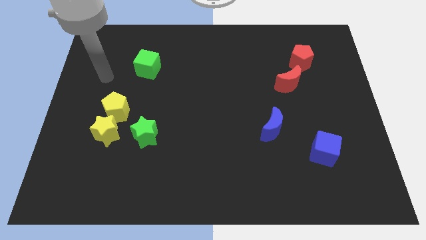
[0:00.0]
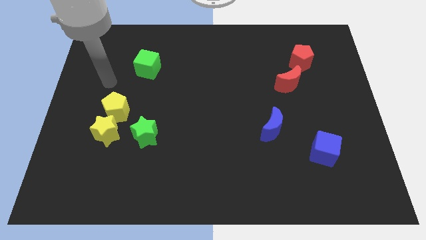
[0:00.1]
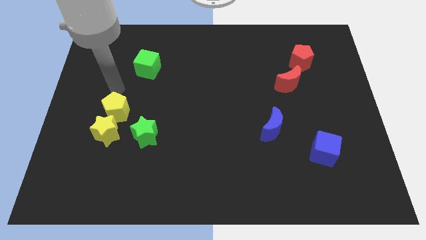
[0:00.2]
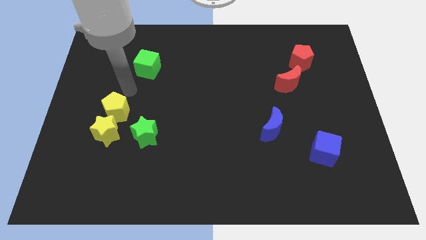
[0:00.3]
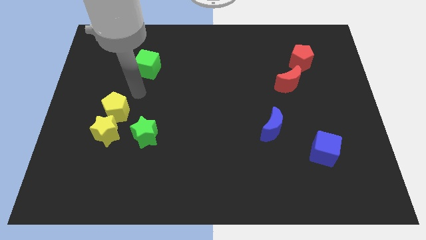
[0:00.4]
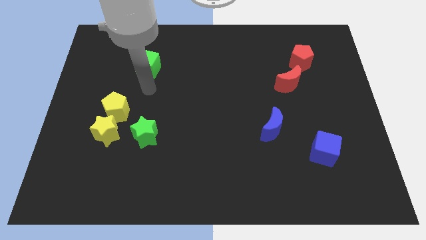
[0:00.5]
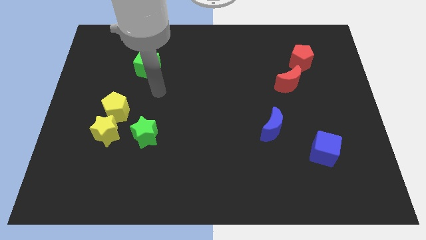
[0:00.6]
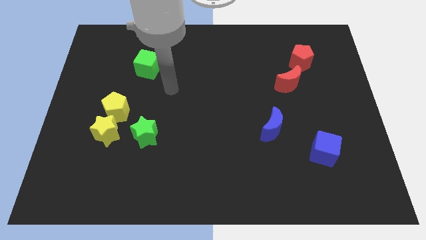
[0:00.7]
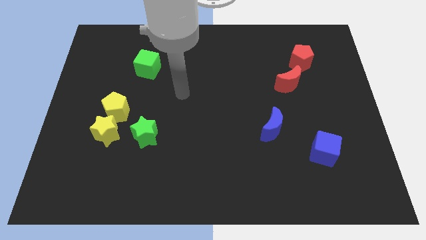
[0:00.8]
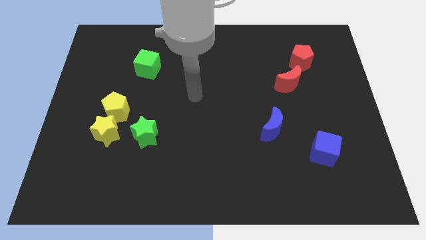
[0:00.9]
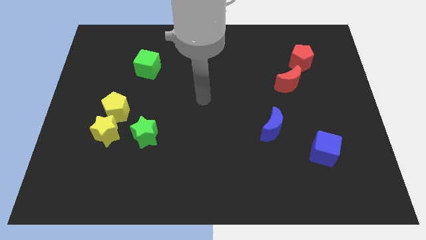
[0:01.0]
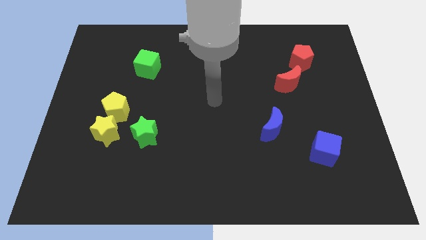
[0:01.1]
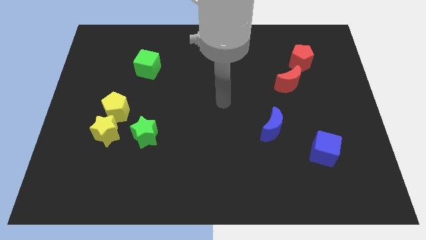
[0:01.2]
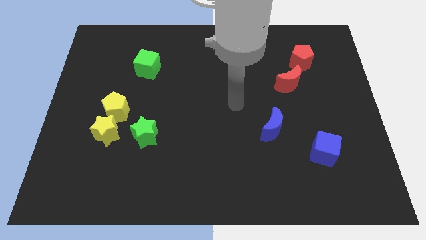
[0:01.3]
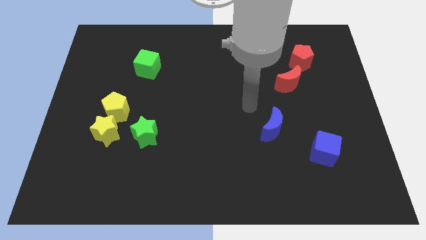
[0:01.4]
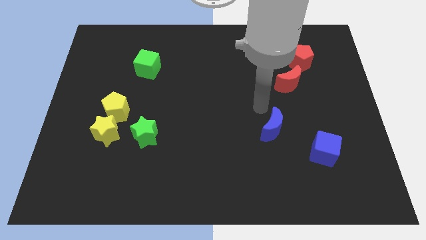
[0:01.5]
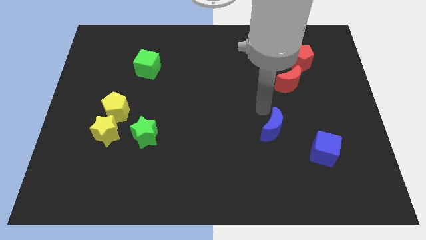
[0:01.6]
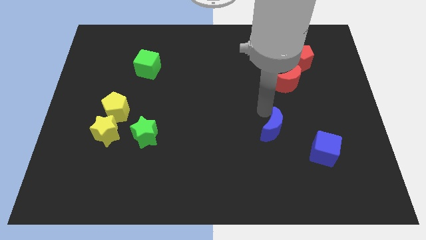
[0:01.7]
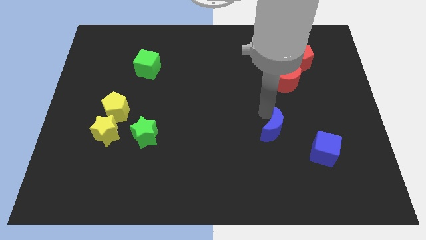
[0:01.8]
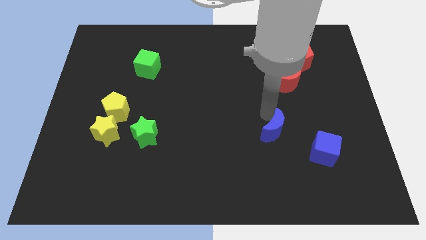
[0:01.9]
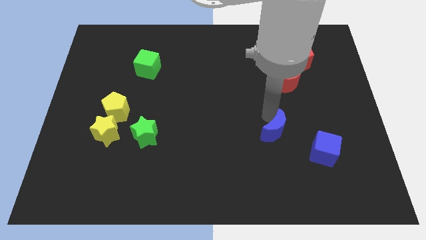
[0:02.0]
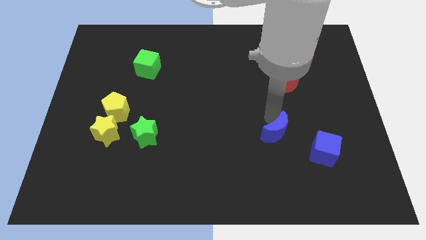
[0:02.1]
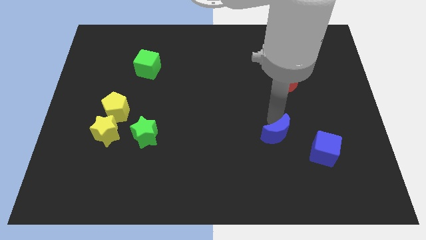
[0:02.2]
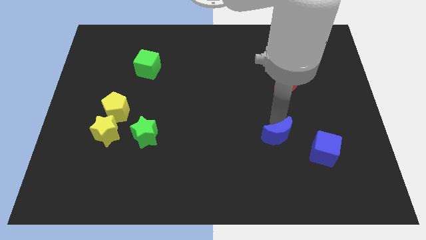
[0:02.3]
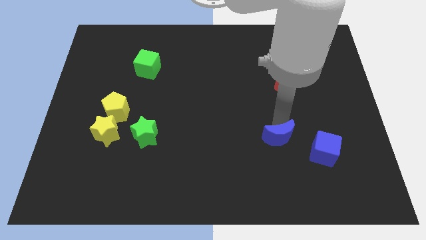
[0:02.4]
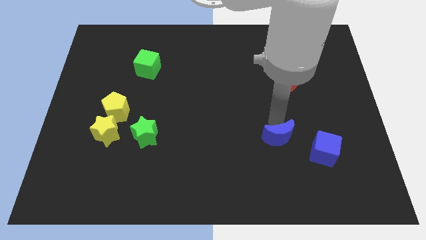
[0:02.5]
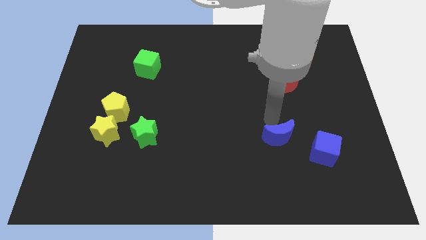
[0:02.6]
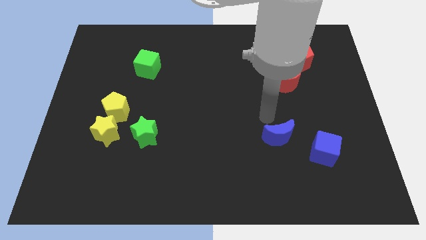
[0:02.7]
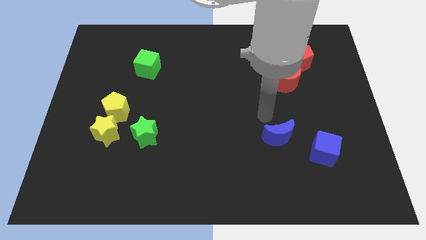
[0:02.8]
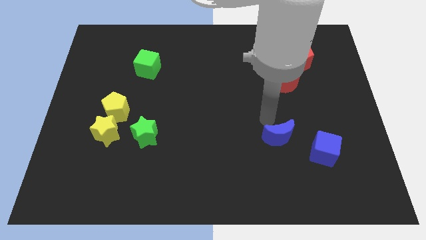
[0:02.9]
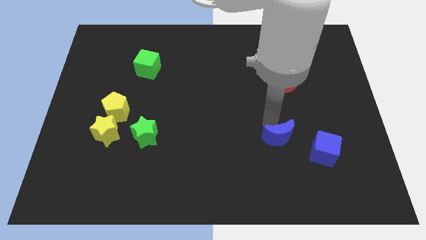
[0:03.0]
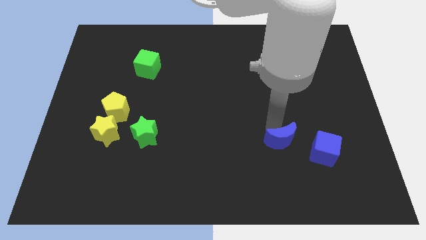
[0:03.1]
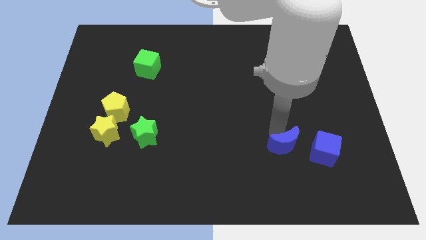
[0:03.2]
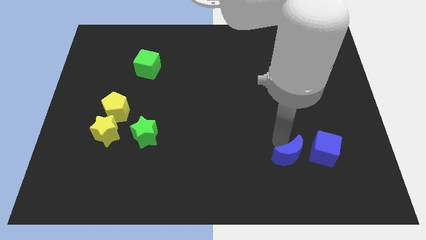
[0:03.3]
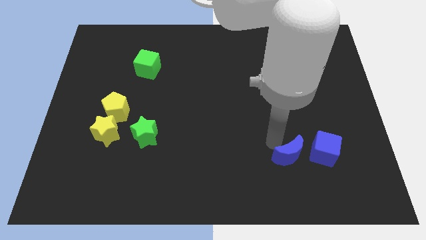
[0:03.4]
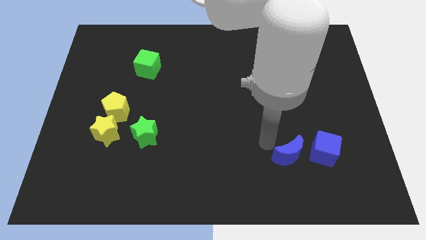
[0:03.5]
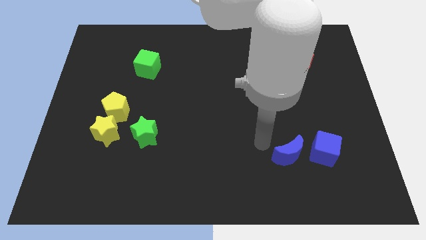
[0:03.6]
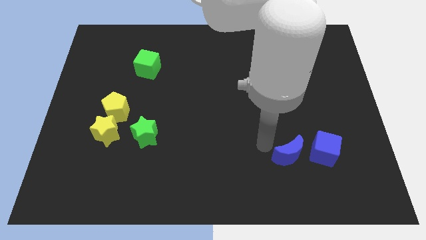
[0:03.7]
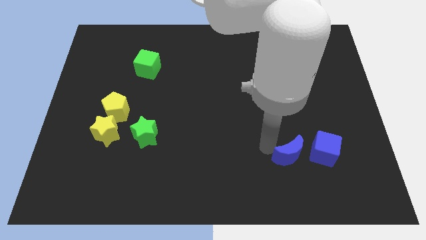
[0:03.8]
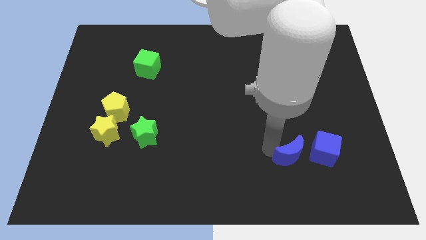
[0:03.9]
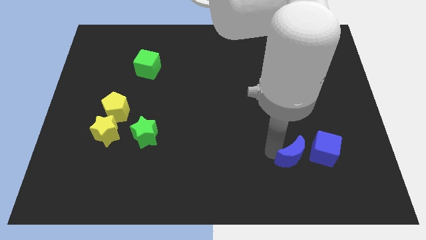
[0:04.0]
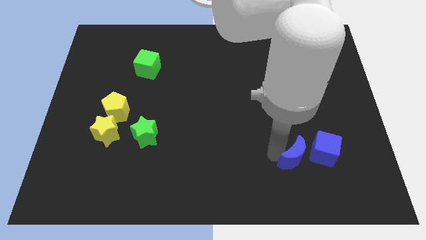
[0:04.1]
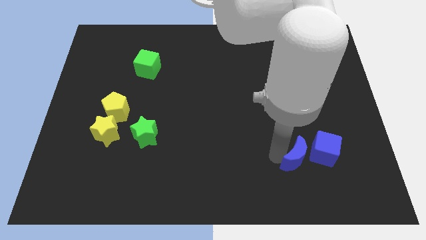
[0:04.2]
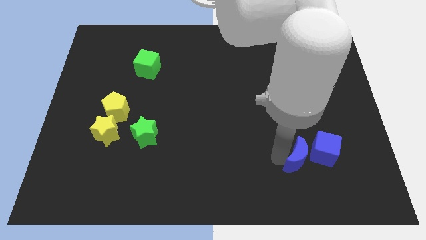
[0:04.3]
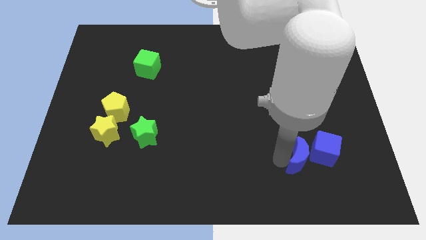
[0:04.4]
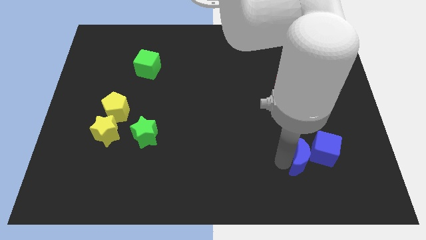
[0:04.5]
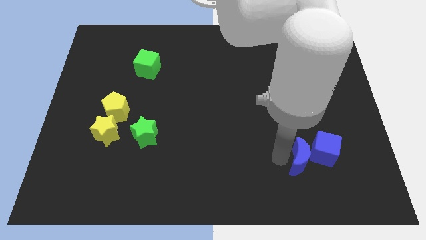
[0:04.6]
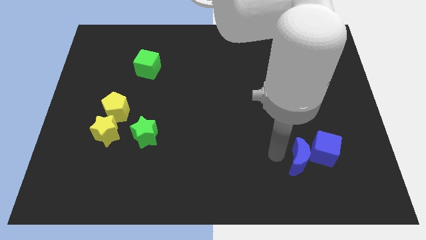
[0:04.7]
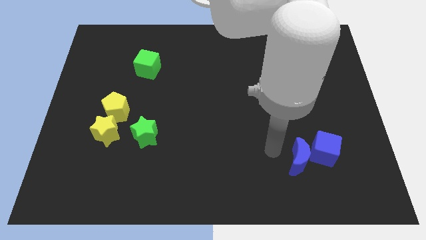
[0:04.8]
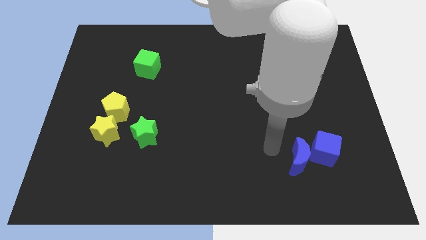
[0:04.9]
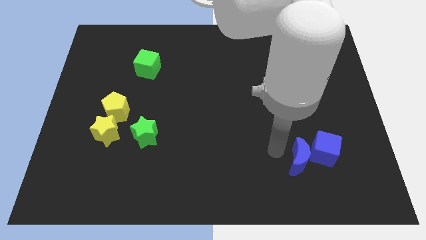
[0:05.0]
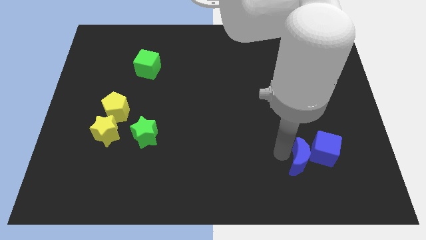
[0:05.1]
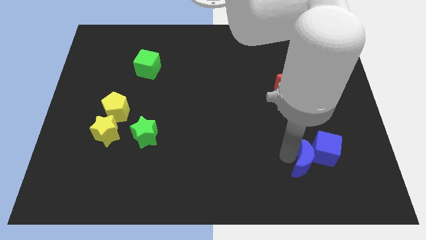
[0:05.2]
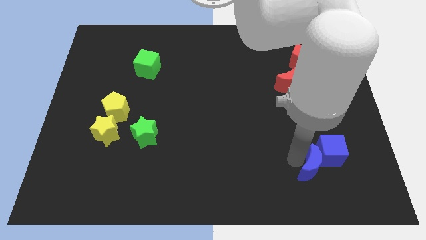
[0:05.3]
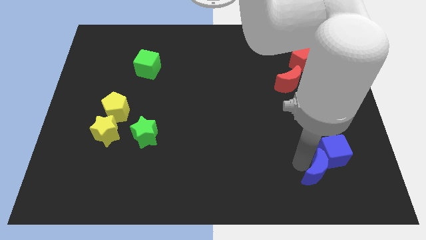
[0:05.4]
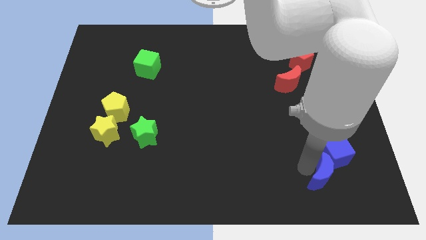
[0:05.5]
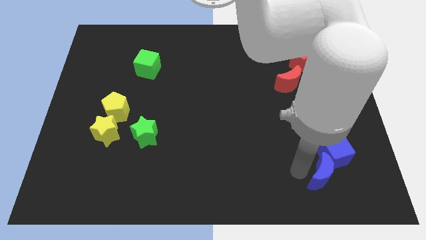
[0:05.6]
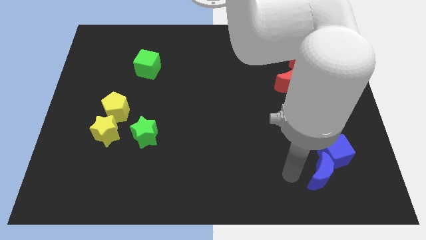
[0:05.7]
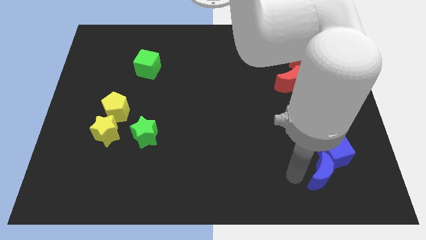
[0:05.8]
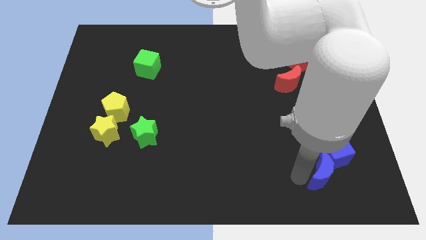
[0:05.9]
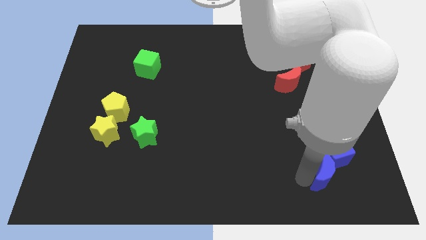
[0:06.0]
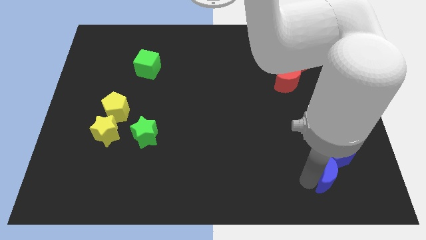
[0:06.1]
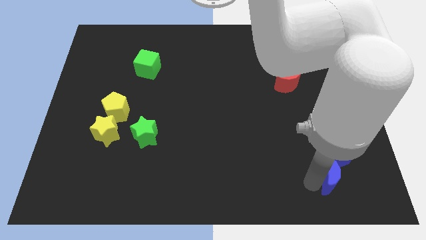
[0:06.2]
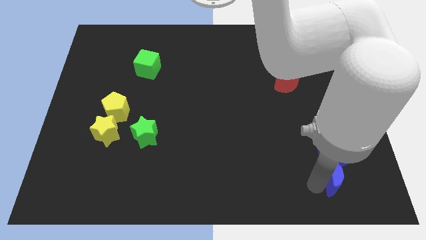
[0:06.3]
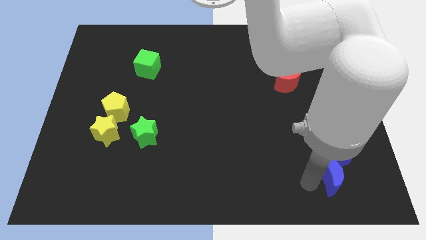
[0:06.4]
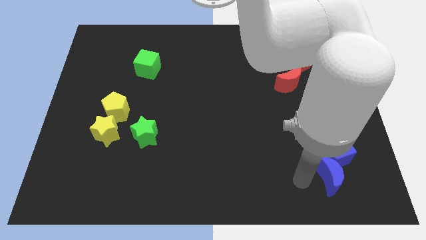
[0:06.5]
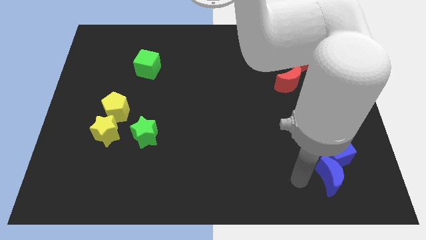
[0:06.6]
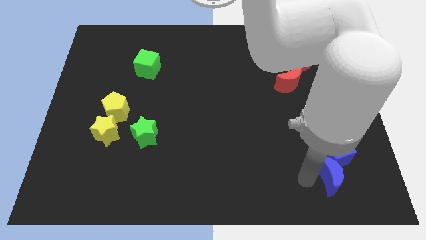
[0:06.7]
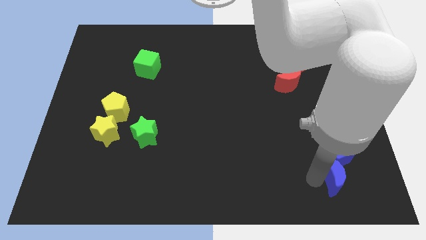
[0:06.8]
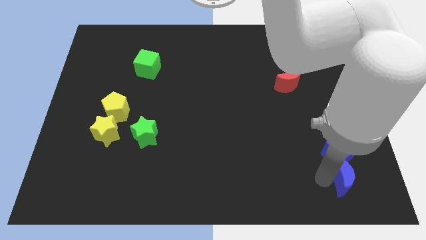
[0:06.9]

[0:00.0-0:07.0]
put the blue moon diagonally down and to the right of the blue cube

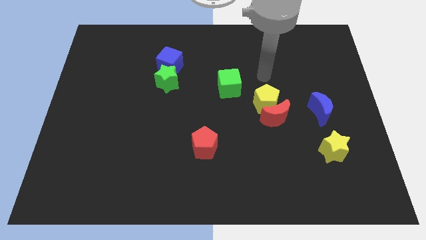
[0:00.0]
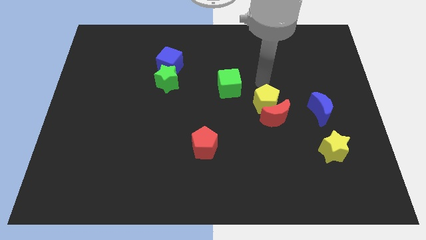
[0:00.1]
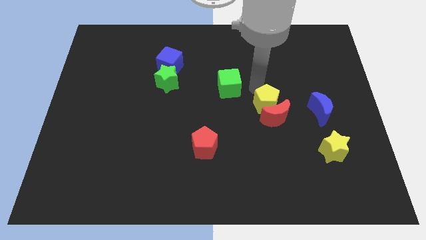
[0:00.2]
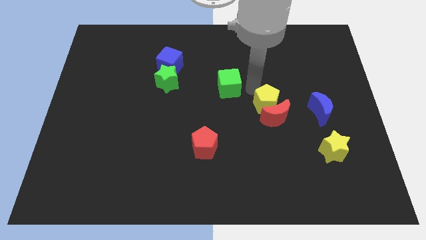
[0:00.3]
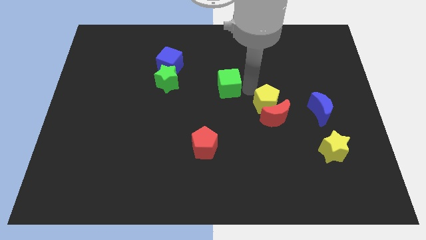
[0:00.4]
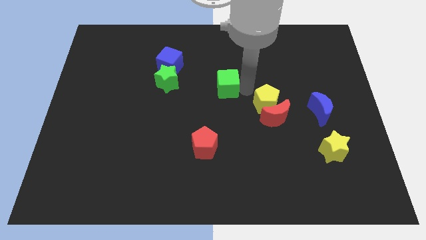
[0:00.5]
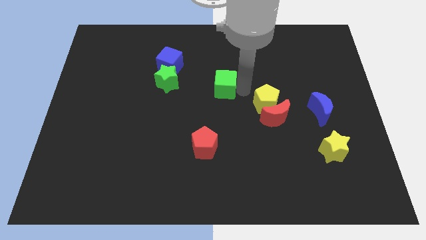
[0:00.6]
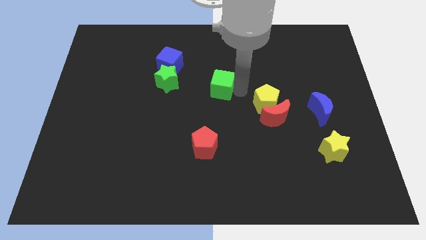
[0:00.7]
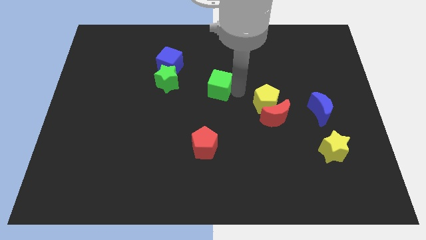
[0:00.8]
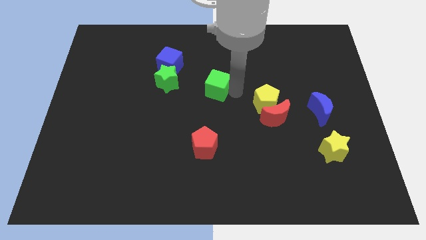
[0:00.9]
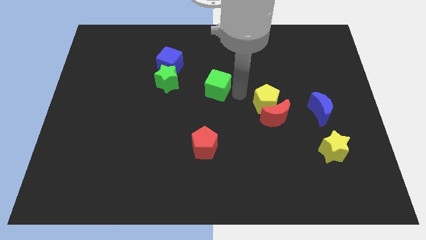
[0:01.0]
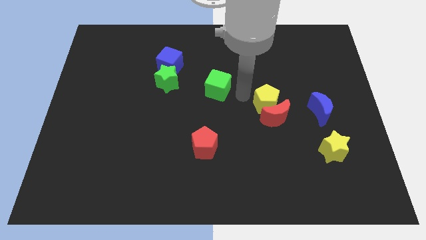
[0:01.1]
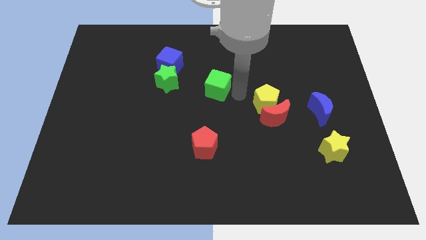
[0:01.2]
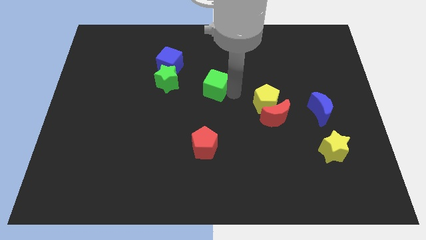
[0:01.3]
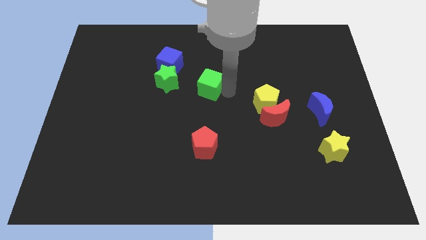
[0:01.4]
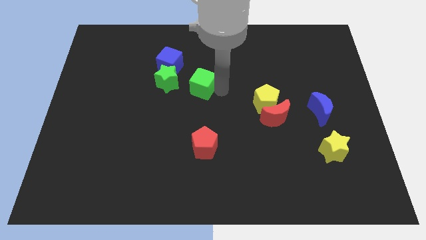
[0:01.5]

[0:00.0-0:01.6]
push the green cube to the bottom right side of the blue cube
